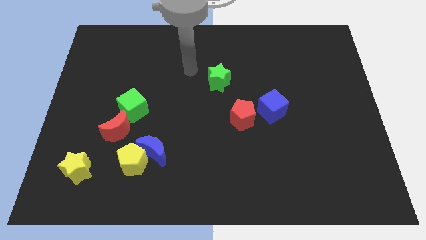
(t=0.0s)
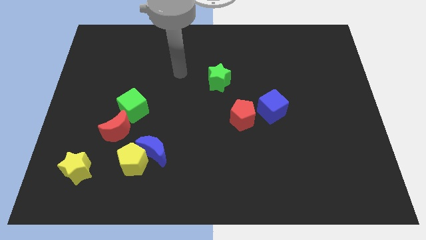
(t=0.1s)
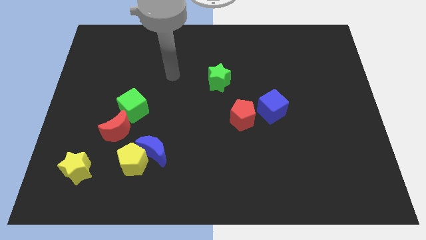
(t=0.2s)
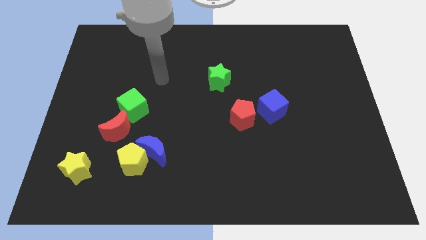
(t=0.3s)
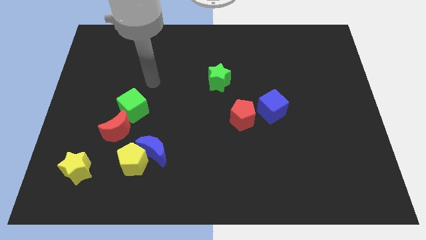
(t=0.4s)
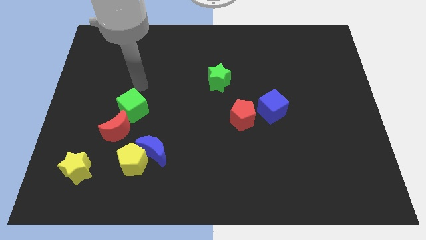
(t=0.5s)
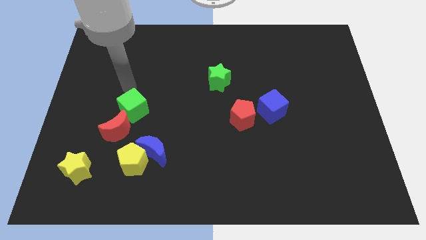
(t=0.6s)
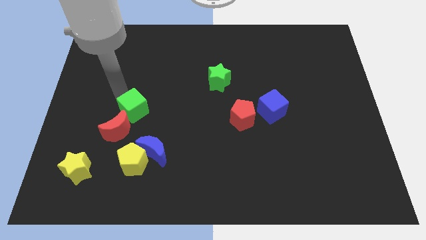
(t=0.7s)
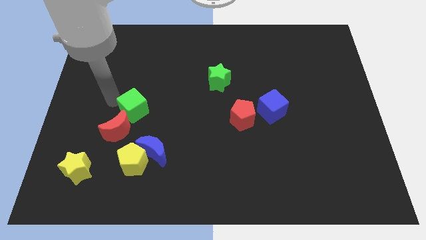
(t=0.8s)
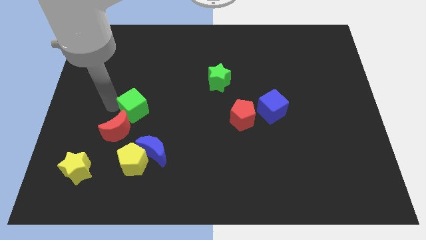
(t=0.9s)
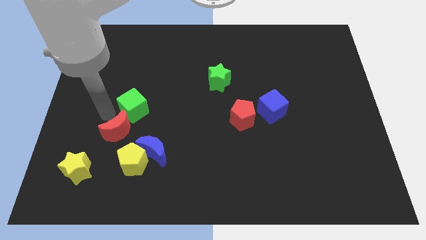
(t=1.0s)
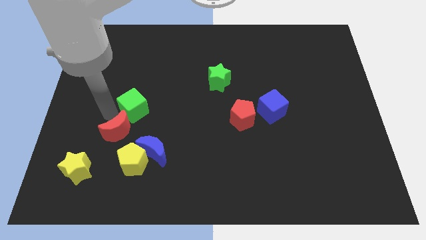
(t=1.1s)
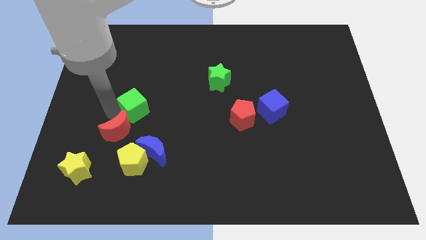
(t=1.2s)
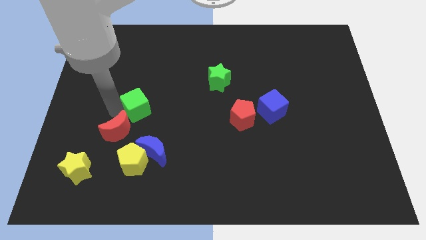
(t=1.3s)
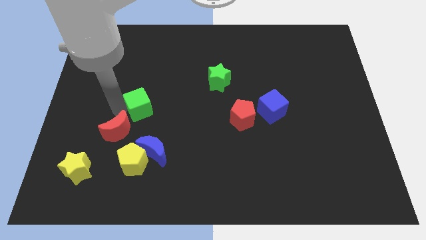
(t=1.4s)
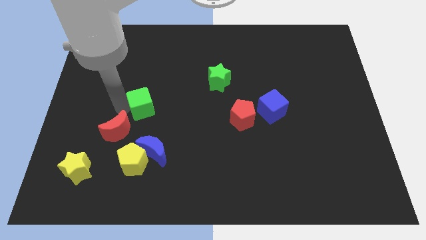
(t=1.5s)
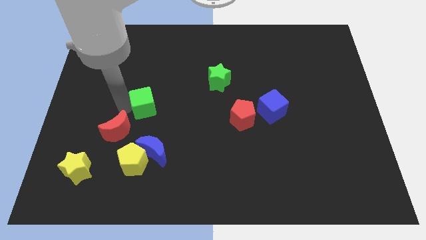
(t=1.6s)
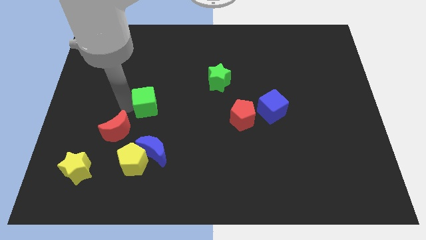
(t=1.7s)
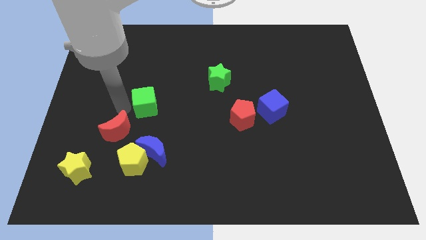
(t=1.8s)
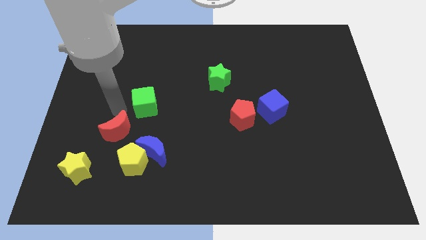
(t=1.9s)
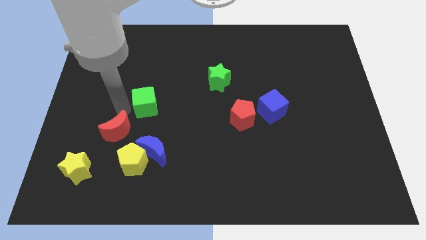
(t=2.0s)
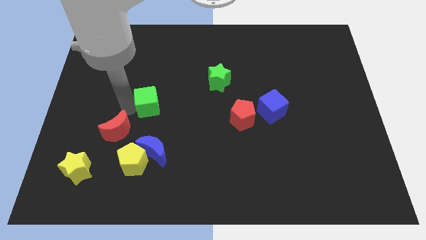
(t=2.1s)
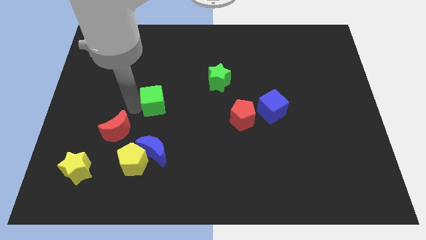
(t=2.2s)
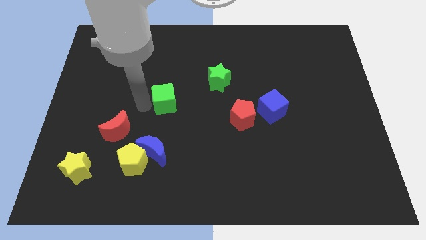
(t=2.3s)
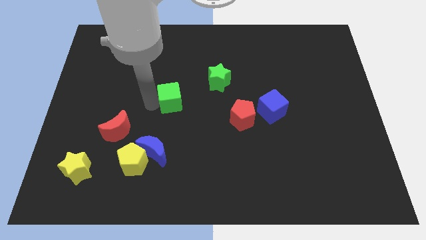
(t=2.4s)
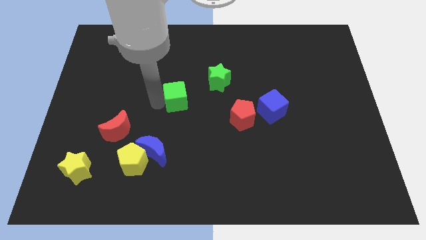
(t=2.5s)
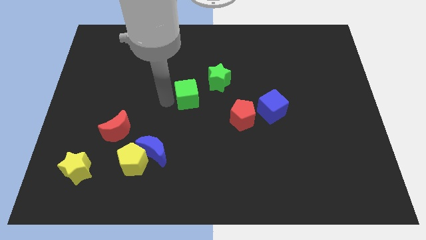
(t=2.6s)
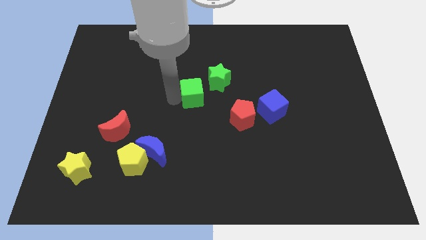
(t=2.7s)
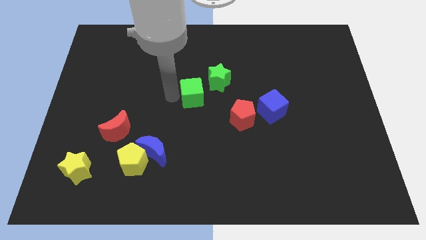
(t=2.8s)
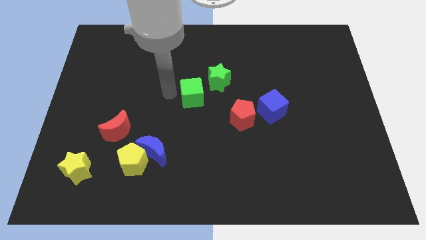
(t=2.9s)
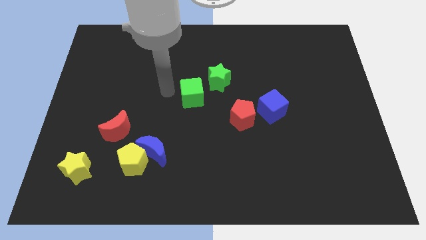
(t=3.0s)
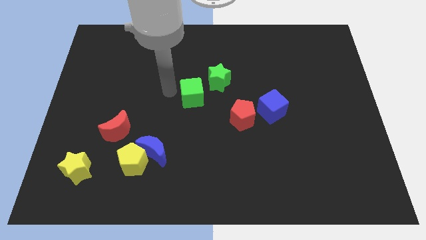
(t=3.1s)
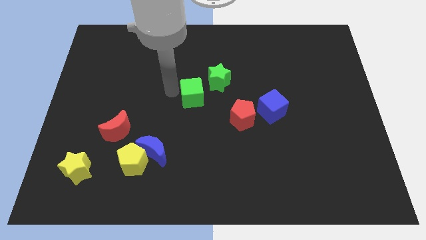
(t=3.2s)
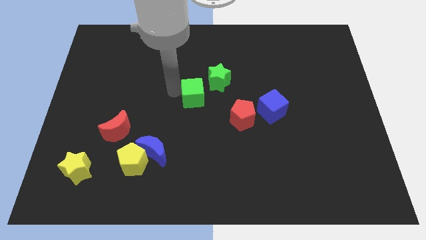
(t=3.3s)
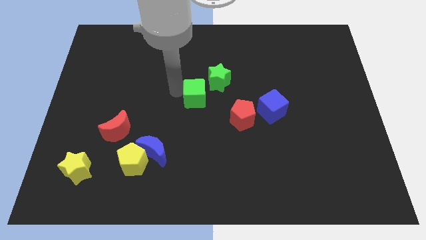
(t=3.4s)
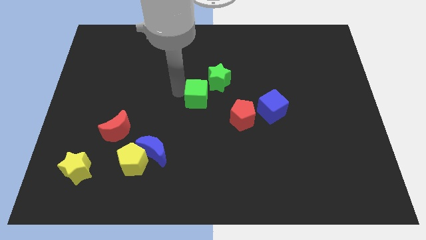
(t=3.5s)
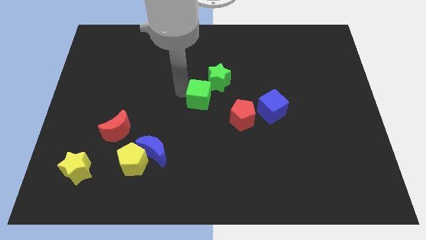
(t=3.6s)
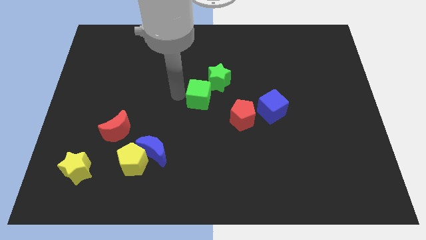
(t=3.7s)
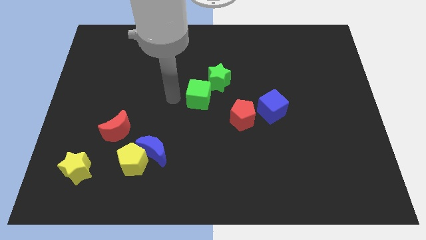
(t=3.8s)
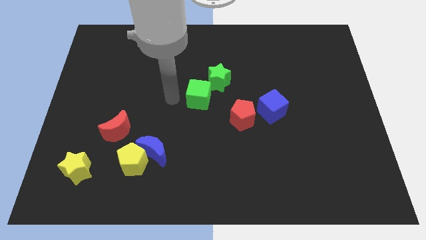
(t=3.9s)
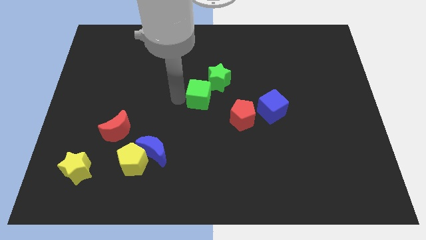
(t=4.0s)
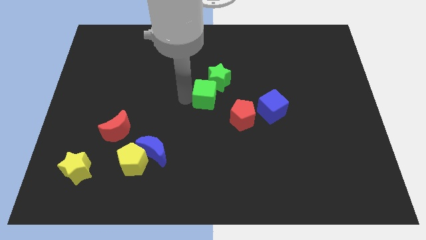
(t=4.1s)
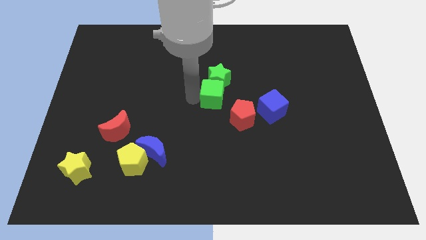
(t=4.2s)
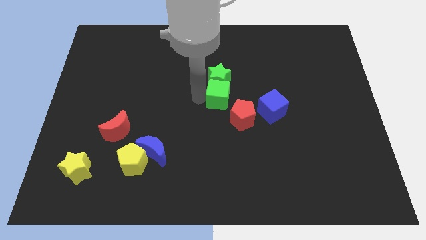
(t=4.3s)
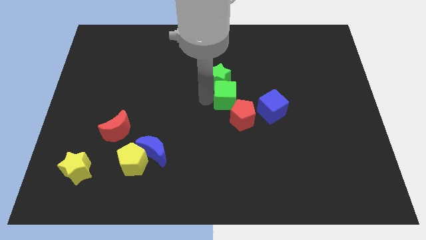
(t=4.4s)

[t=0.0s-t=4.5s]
push the green cube to the top side of the red pentagon

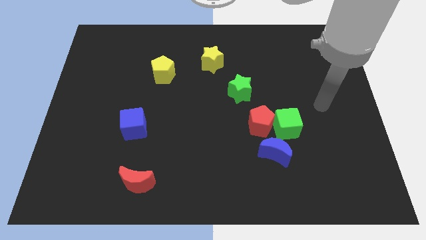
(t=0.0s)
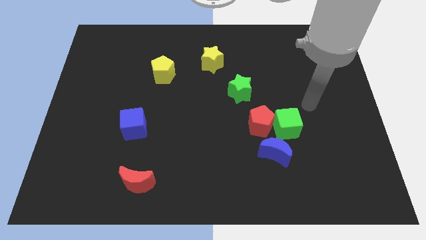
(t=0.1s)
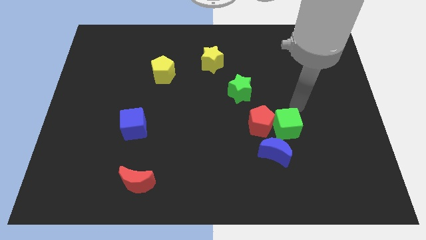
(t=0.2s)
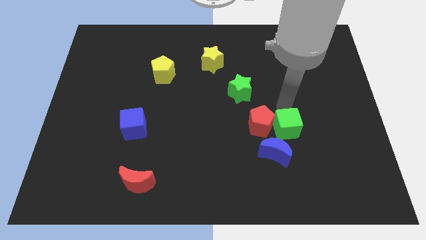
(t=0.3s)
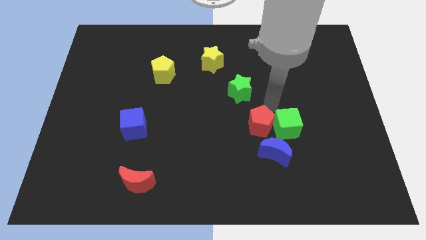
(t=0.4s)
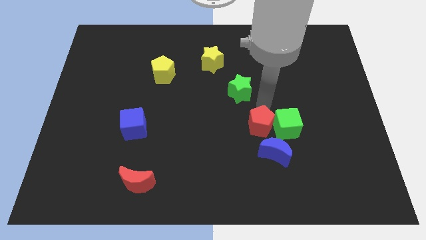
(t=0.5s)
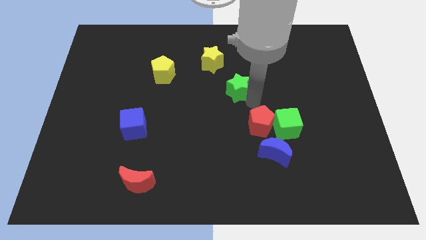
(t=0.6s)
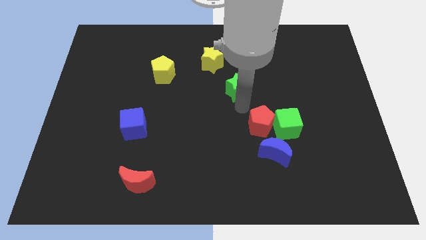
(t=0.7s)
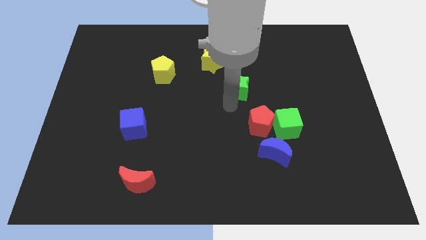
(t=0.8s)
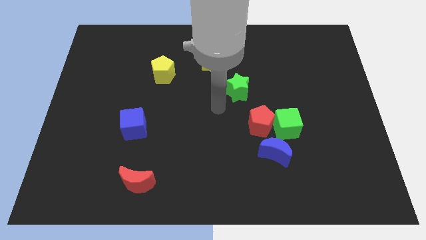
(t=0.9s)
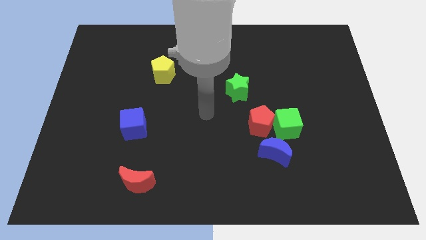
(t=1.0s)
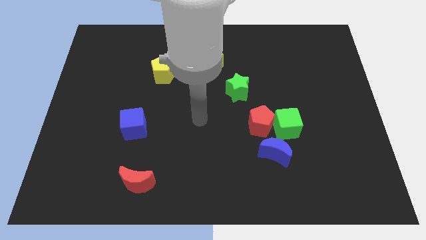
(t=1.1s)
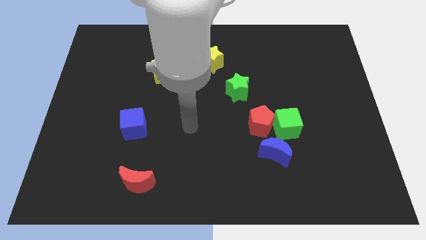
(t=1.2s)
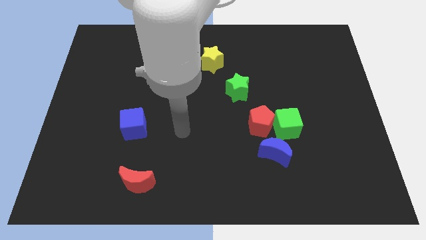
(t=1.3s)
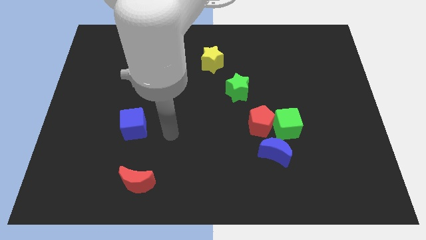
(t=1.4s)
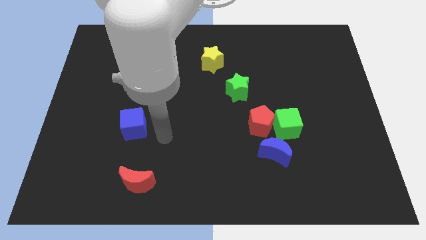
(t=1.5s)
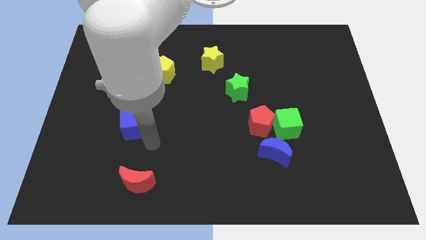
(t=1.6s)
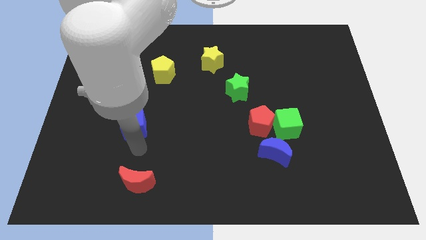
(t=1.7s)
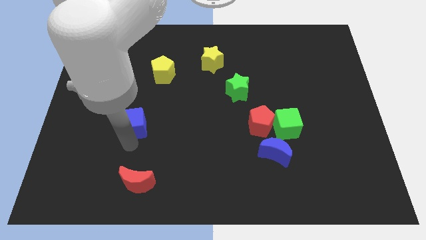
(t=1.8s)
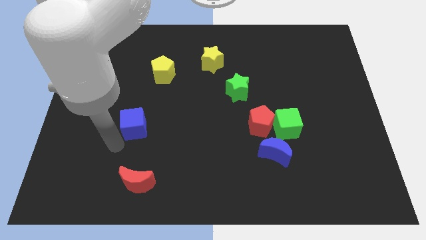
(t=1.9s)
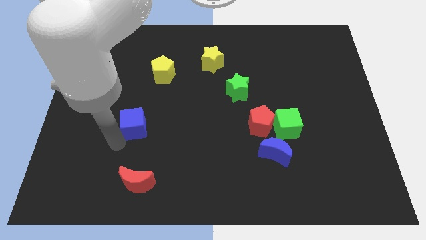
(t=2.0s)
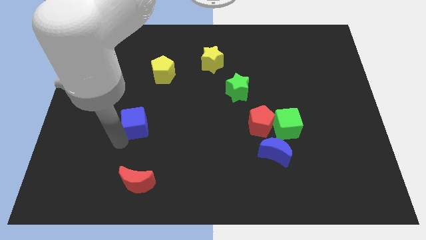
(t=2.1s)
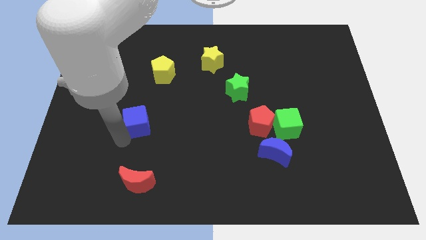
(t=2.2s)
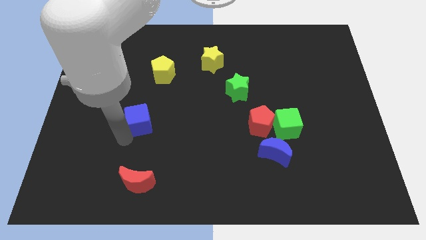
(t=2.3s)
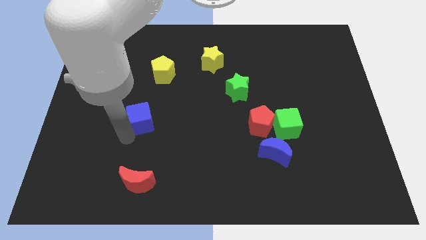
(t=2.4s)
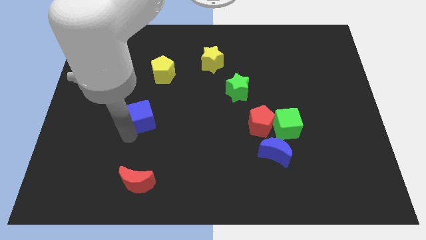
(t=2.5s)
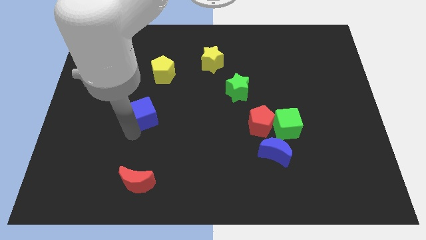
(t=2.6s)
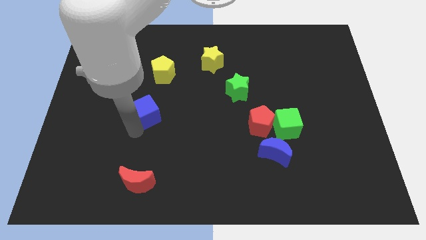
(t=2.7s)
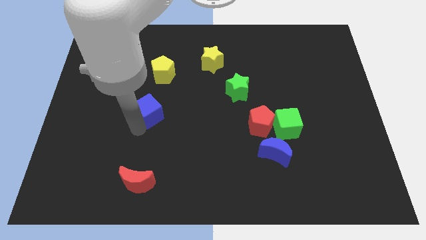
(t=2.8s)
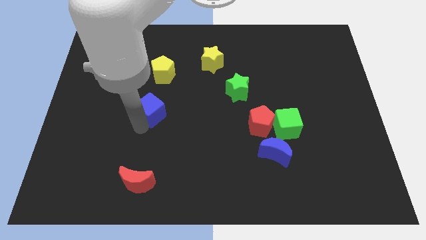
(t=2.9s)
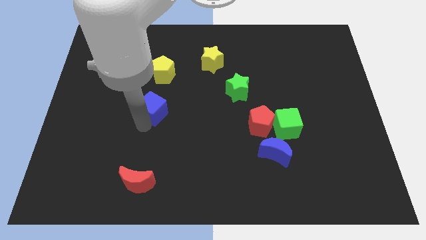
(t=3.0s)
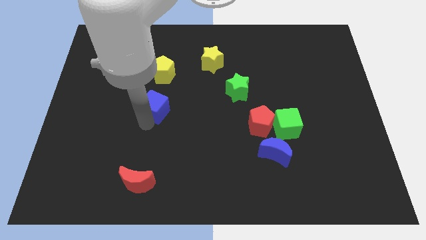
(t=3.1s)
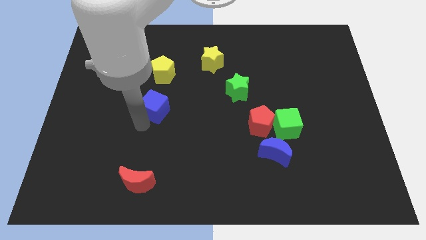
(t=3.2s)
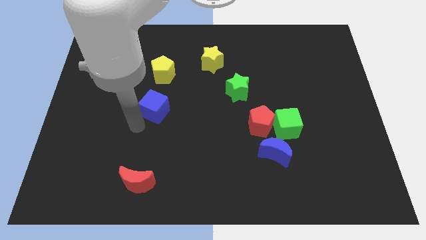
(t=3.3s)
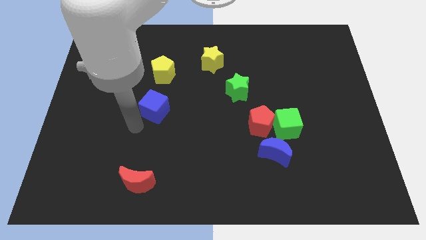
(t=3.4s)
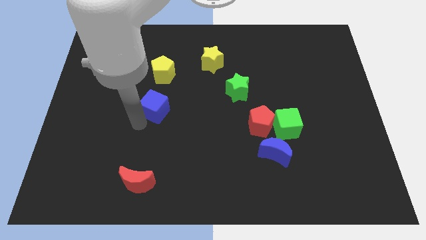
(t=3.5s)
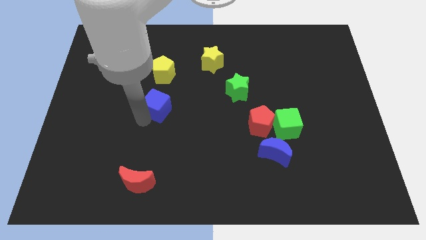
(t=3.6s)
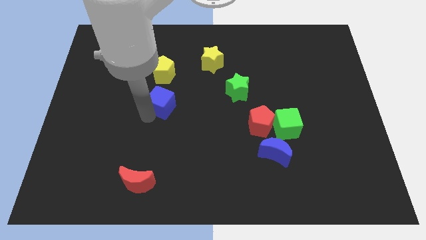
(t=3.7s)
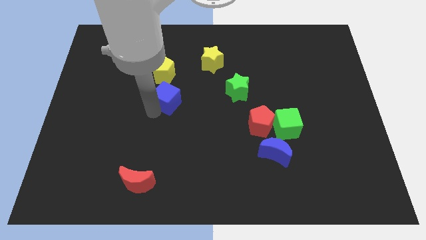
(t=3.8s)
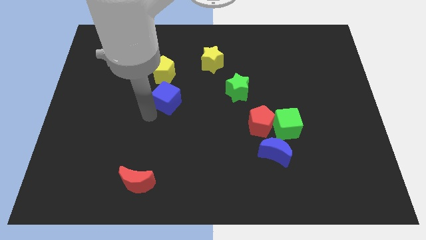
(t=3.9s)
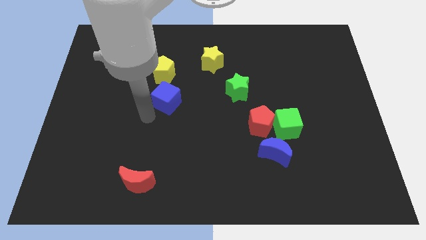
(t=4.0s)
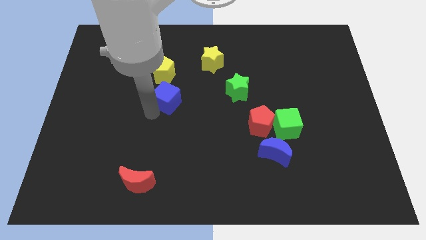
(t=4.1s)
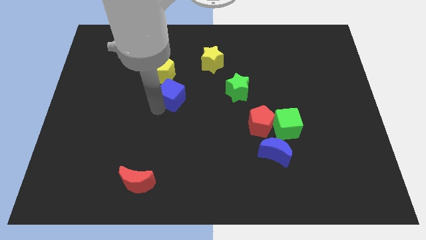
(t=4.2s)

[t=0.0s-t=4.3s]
push the blue cube diagonally down and to the right of the yellow pentagon
